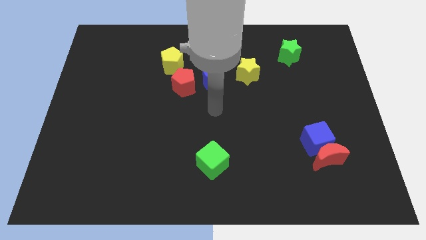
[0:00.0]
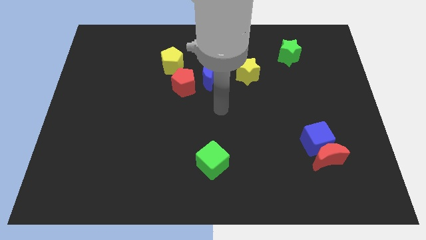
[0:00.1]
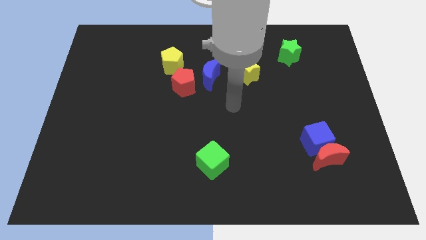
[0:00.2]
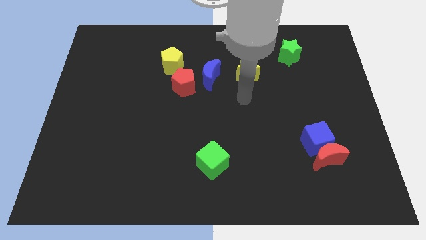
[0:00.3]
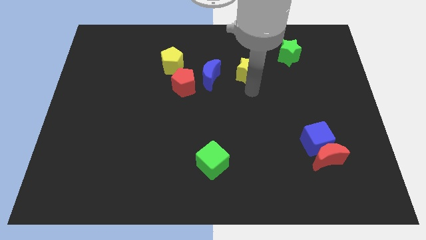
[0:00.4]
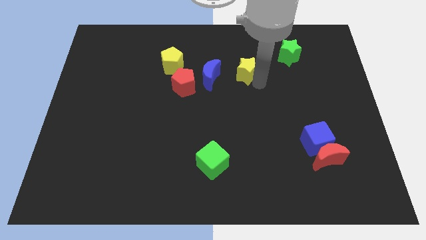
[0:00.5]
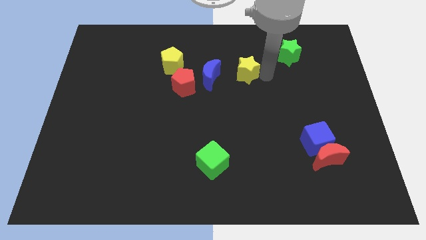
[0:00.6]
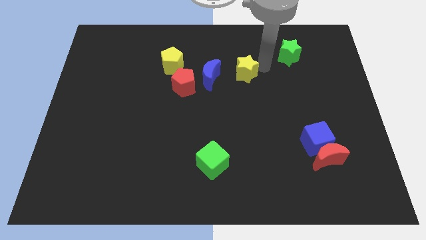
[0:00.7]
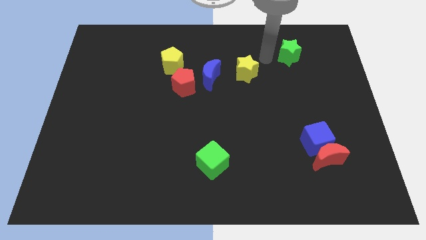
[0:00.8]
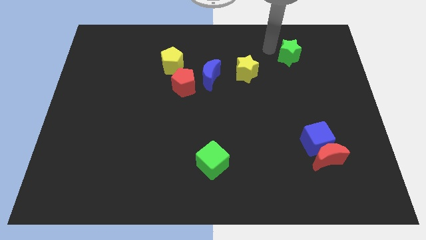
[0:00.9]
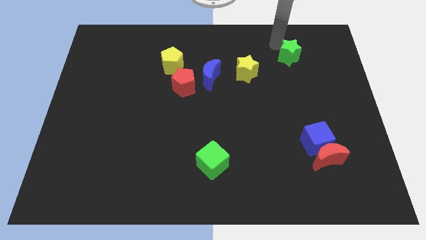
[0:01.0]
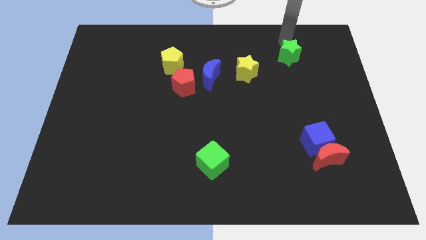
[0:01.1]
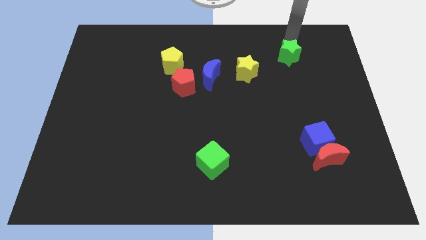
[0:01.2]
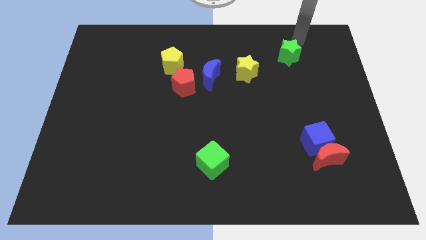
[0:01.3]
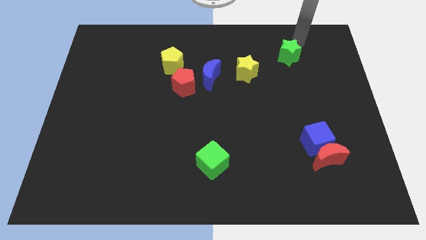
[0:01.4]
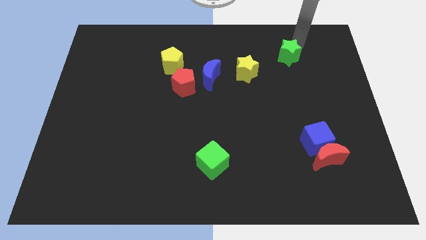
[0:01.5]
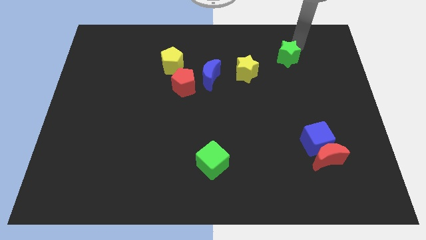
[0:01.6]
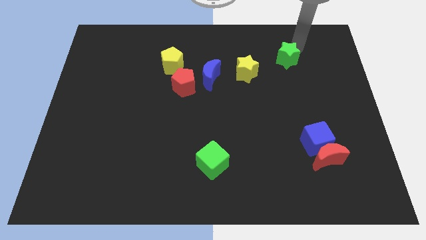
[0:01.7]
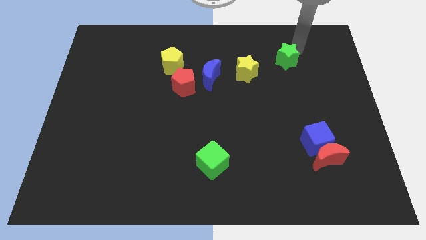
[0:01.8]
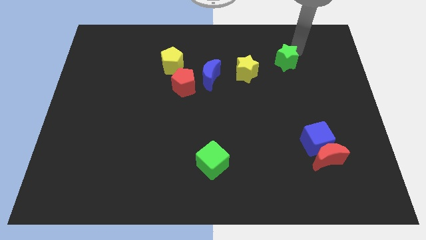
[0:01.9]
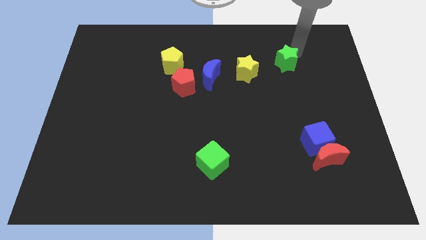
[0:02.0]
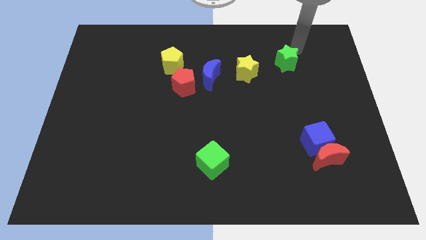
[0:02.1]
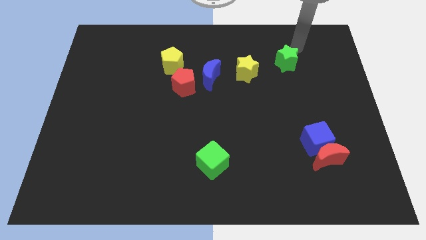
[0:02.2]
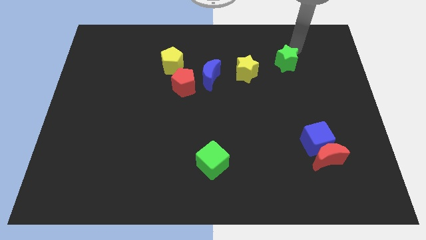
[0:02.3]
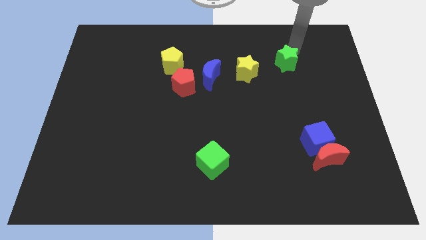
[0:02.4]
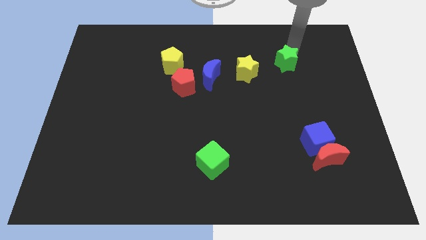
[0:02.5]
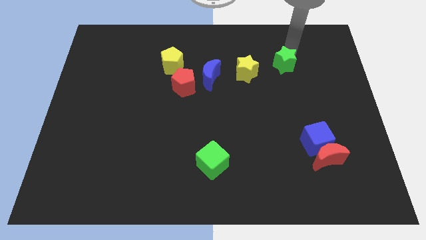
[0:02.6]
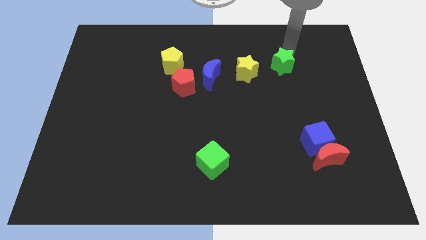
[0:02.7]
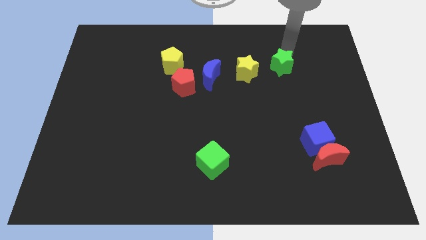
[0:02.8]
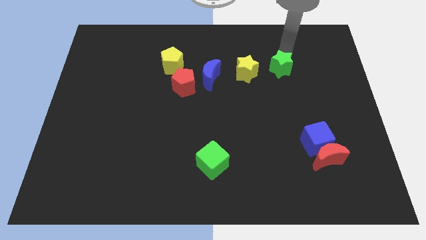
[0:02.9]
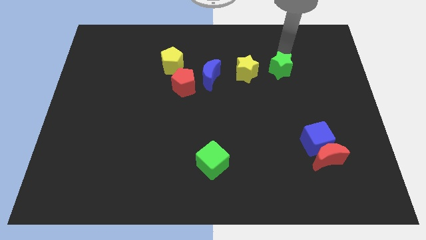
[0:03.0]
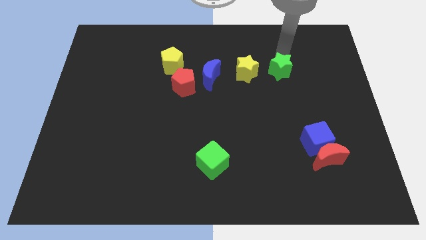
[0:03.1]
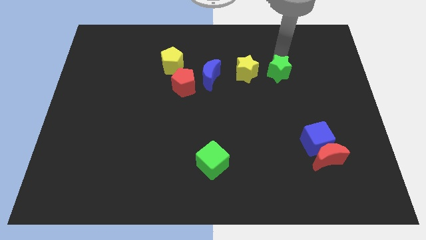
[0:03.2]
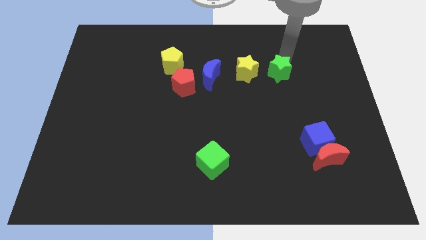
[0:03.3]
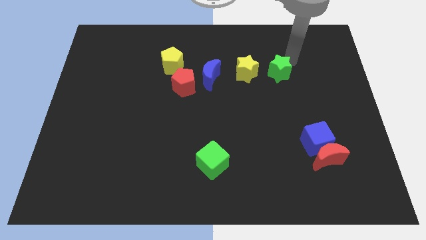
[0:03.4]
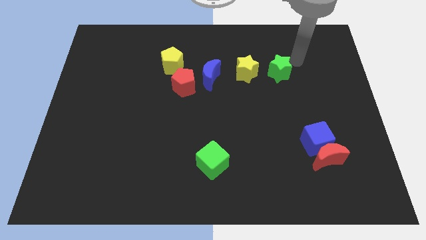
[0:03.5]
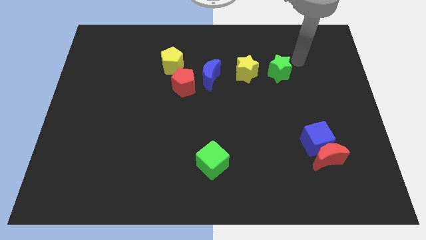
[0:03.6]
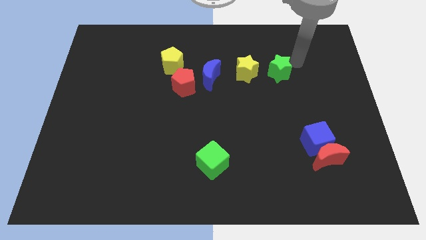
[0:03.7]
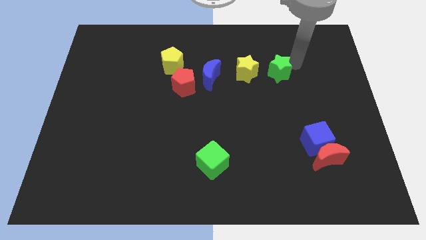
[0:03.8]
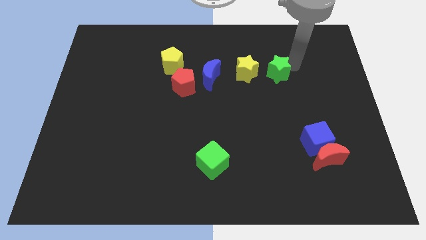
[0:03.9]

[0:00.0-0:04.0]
push the green star down and left somewhat

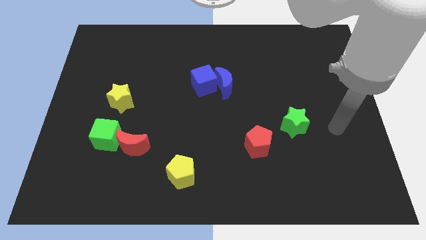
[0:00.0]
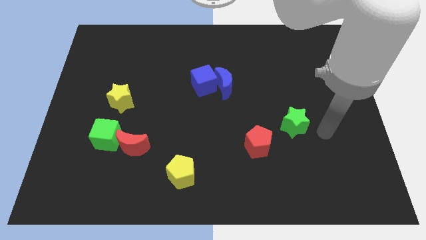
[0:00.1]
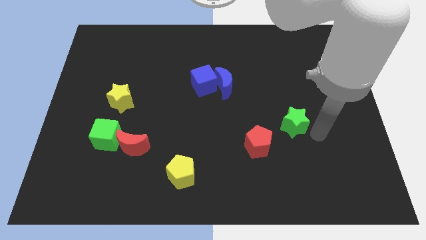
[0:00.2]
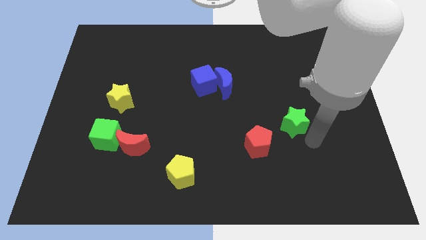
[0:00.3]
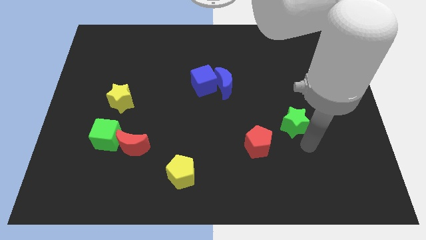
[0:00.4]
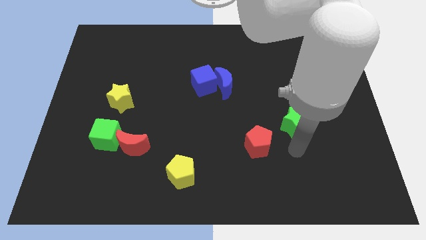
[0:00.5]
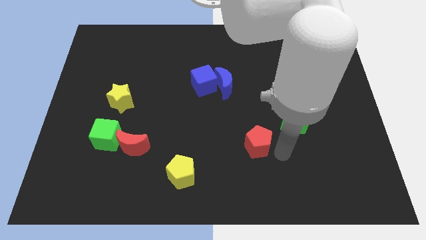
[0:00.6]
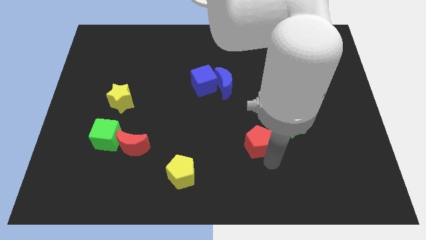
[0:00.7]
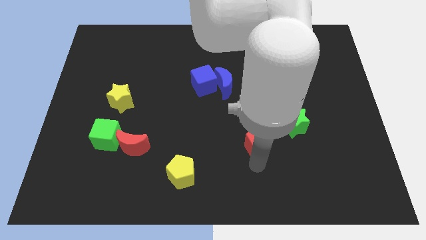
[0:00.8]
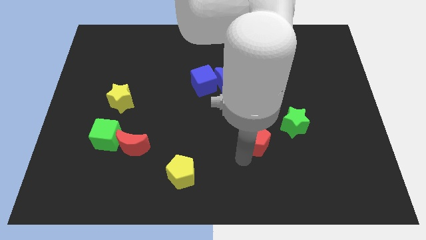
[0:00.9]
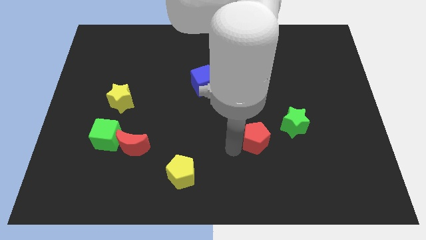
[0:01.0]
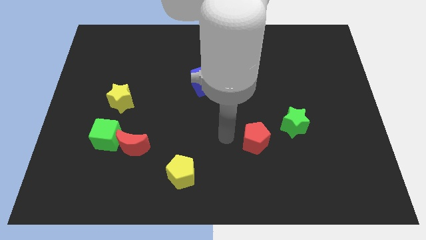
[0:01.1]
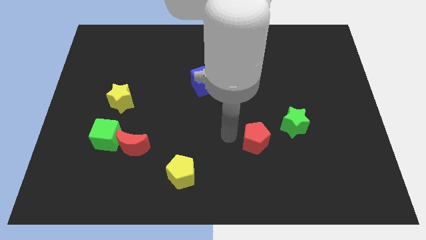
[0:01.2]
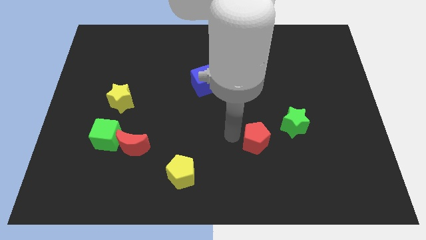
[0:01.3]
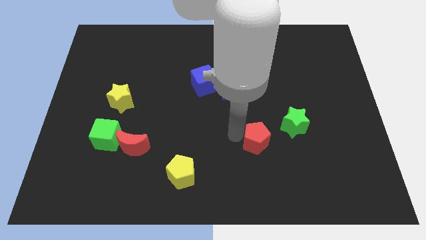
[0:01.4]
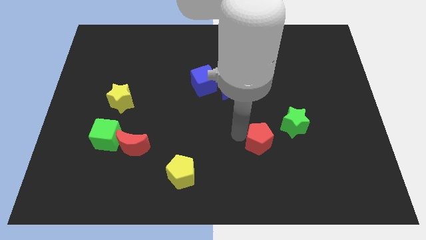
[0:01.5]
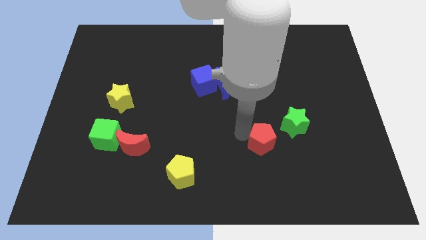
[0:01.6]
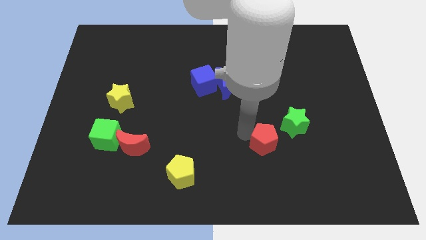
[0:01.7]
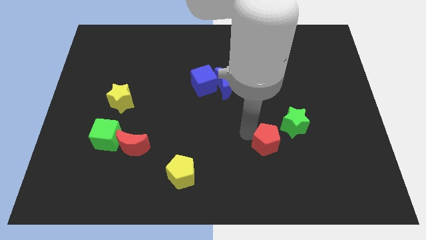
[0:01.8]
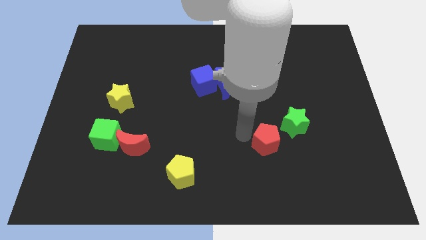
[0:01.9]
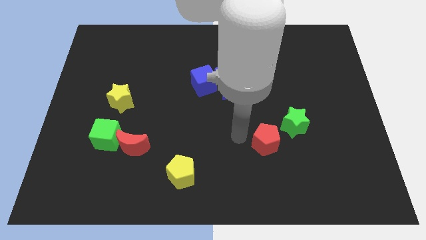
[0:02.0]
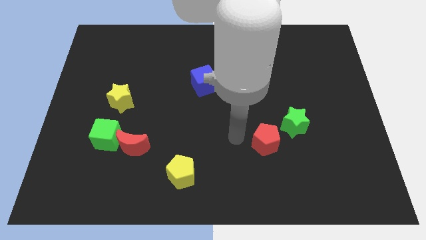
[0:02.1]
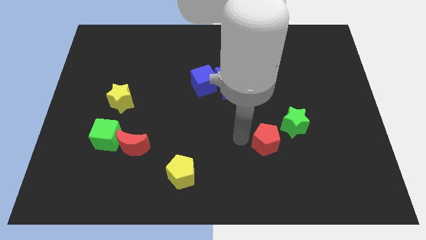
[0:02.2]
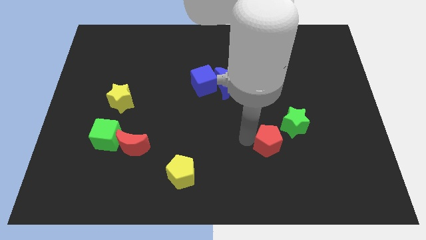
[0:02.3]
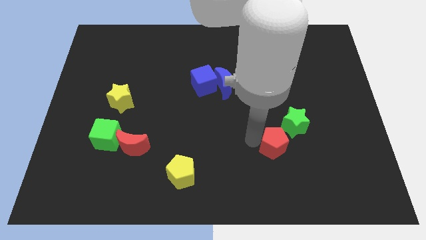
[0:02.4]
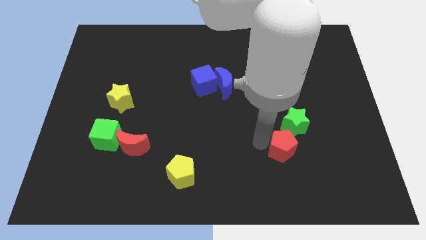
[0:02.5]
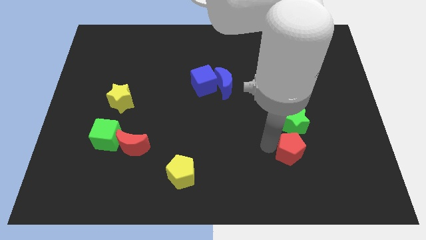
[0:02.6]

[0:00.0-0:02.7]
slightly slide the red pentagon right

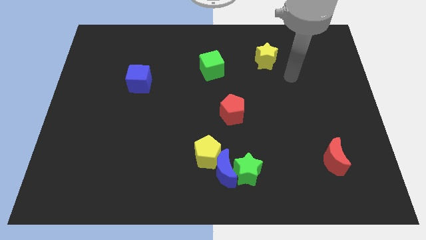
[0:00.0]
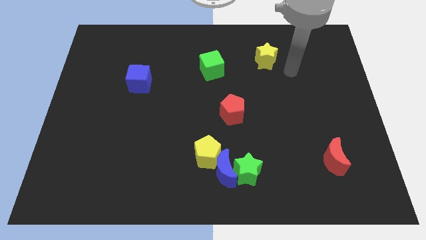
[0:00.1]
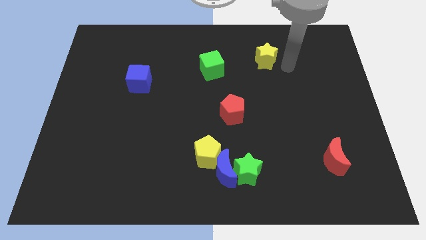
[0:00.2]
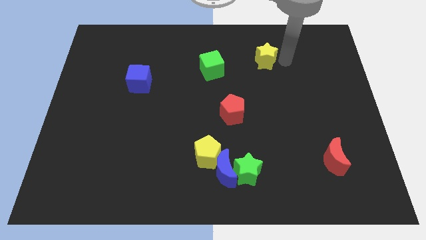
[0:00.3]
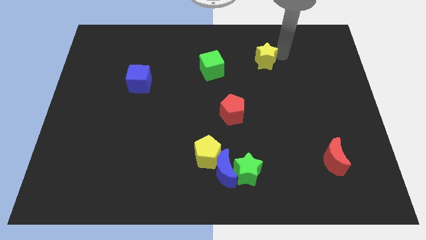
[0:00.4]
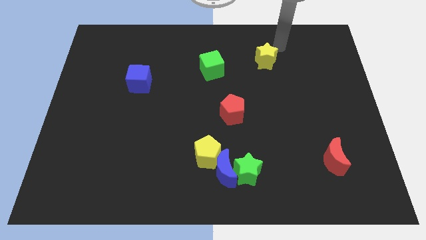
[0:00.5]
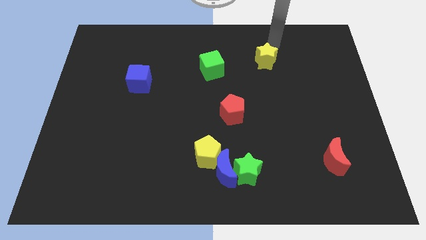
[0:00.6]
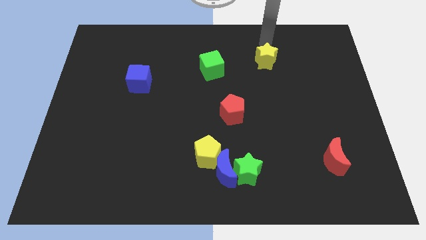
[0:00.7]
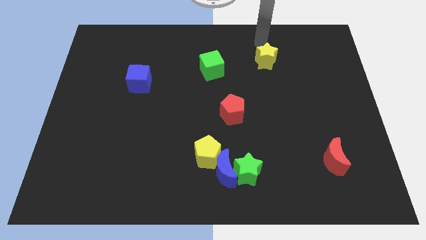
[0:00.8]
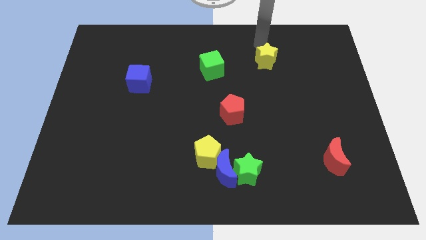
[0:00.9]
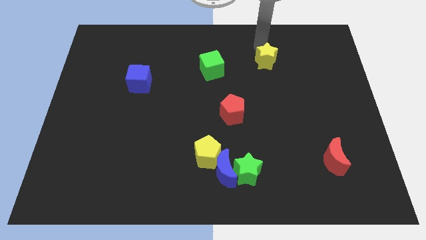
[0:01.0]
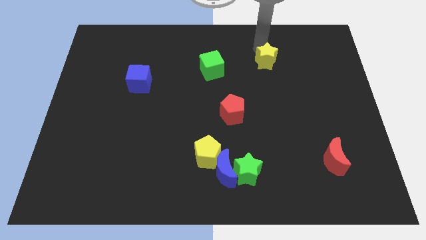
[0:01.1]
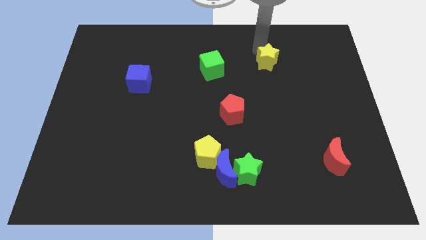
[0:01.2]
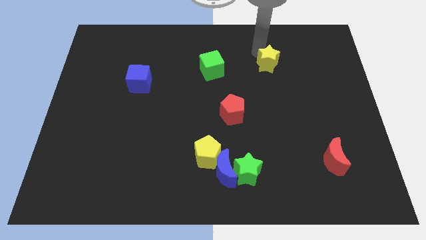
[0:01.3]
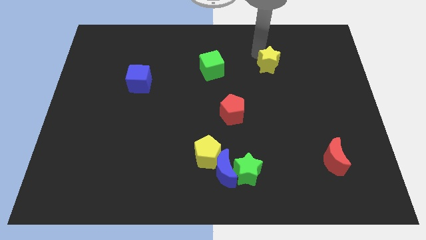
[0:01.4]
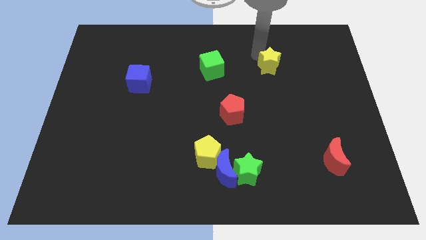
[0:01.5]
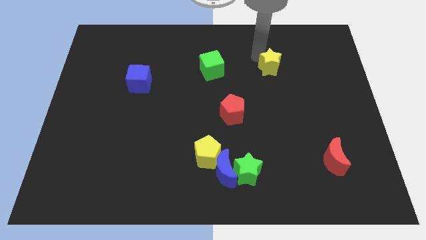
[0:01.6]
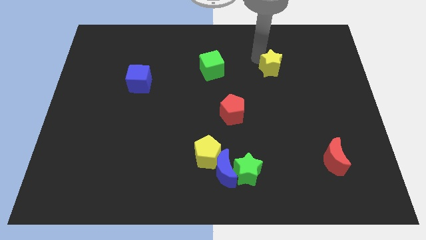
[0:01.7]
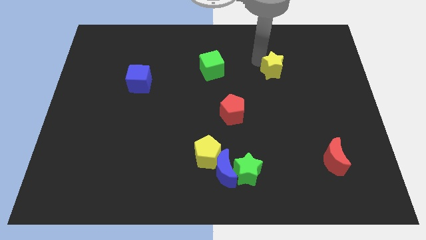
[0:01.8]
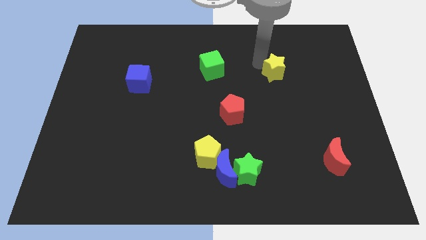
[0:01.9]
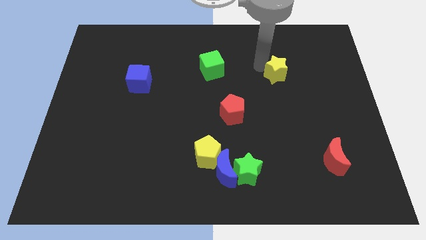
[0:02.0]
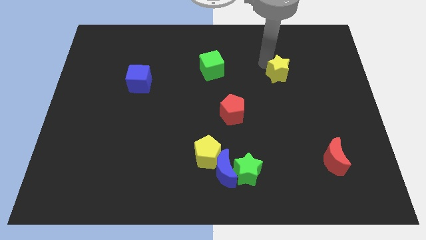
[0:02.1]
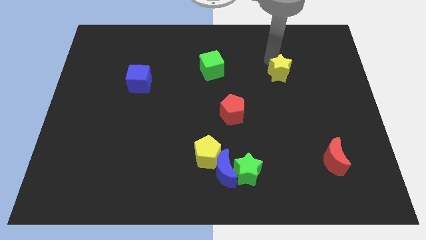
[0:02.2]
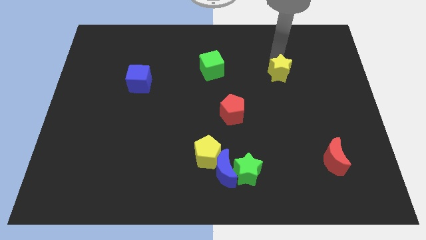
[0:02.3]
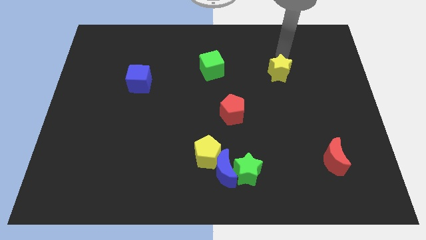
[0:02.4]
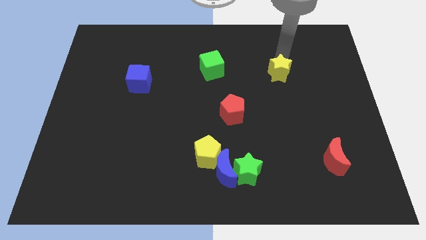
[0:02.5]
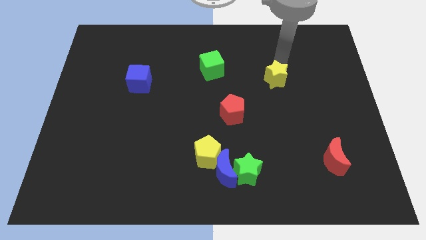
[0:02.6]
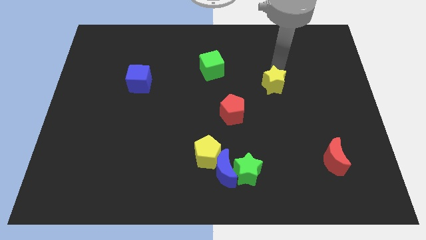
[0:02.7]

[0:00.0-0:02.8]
slide the yellow star a bit downwards
